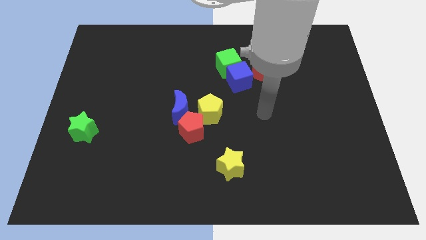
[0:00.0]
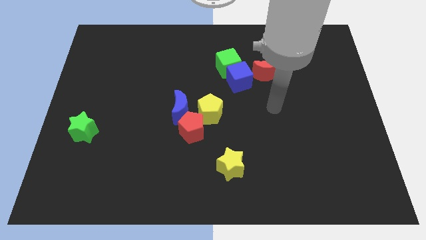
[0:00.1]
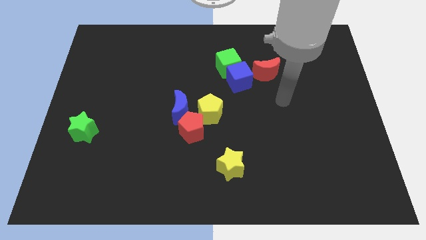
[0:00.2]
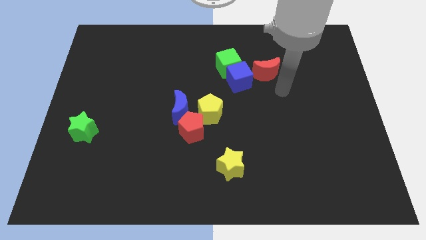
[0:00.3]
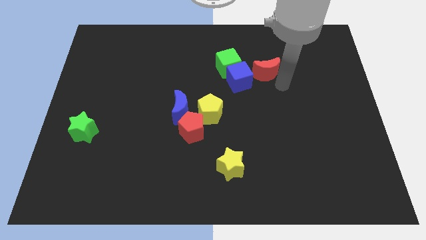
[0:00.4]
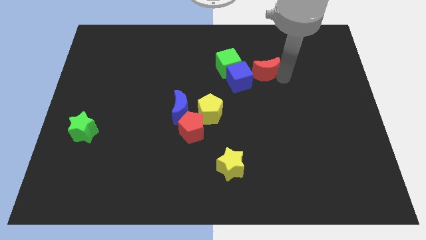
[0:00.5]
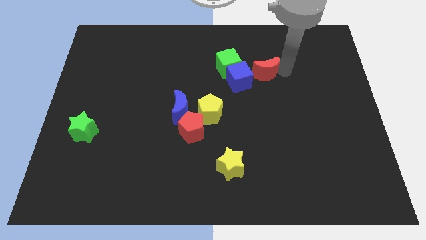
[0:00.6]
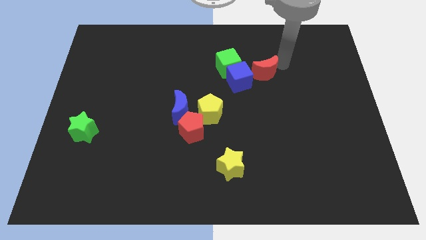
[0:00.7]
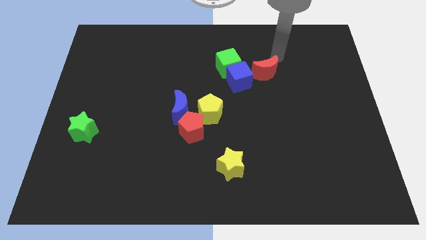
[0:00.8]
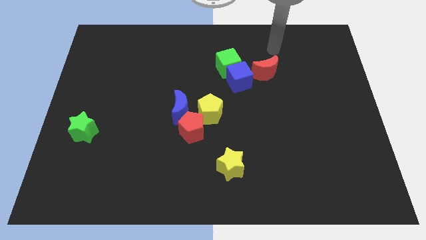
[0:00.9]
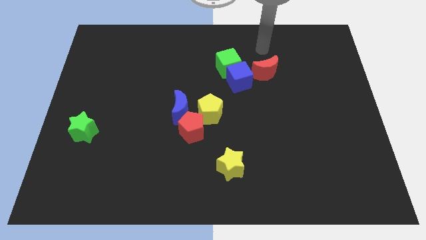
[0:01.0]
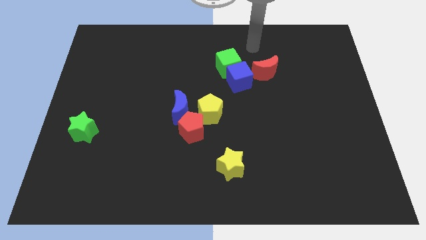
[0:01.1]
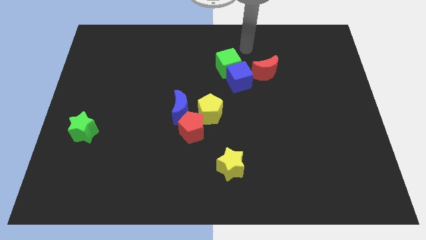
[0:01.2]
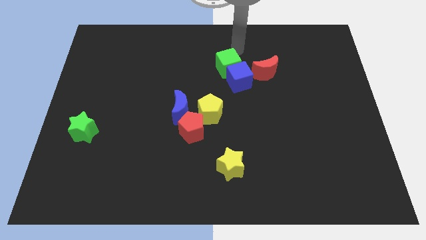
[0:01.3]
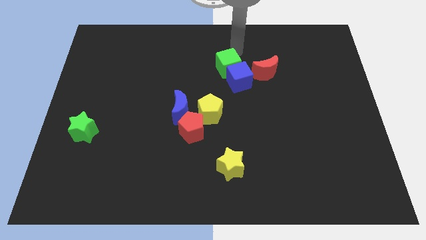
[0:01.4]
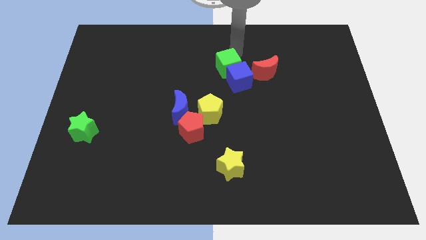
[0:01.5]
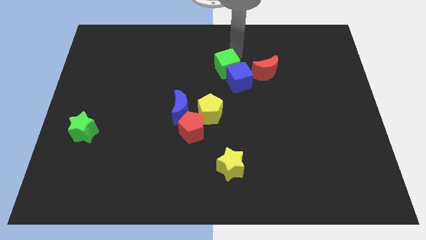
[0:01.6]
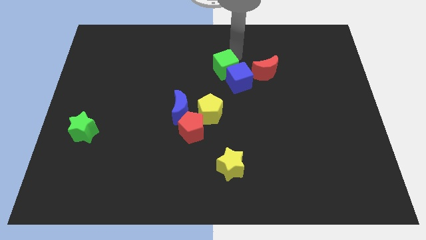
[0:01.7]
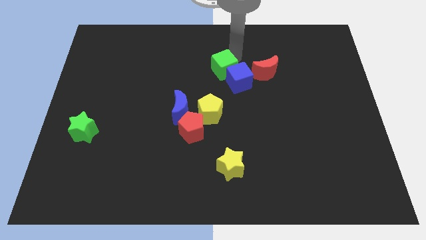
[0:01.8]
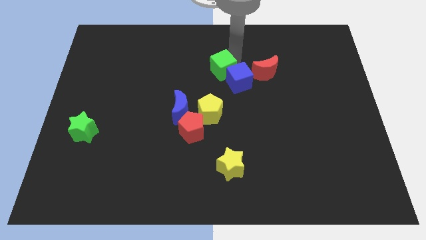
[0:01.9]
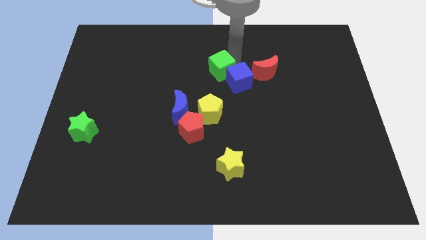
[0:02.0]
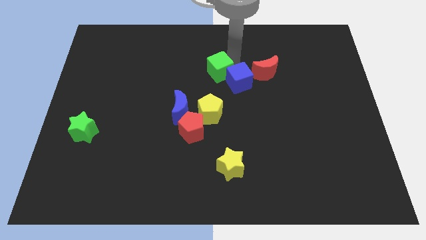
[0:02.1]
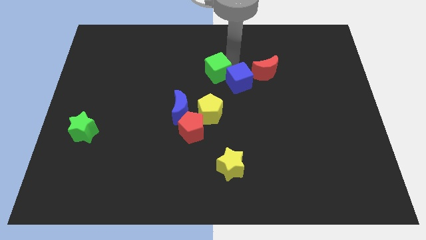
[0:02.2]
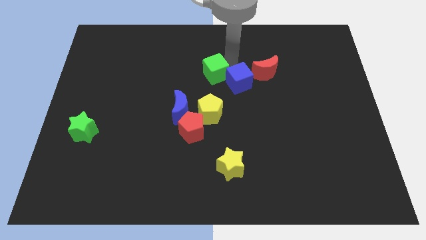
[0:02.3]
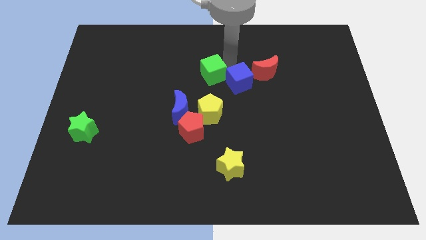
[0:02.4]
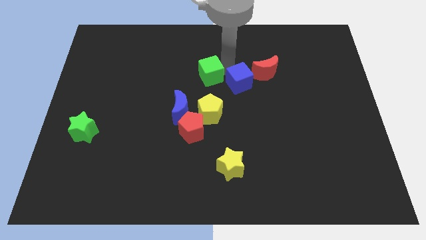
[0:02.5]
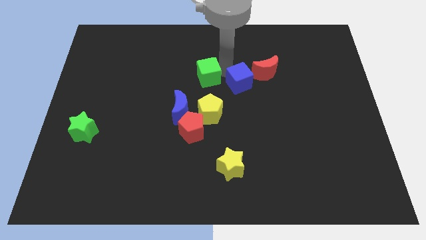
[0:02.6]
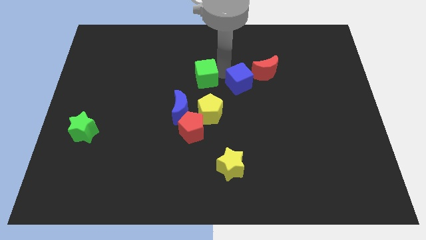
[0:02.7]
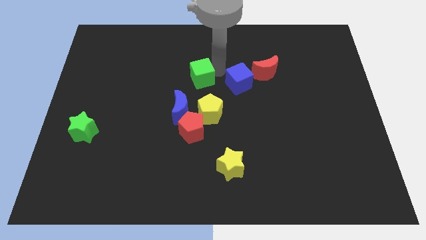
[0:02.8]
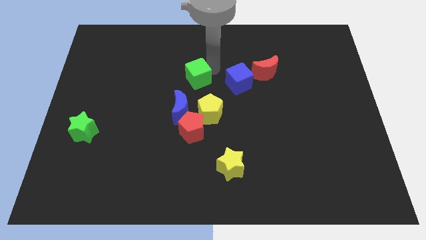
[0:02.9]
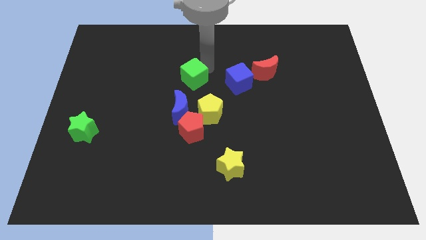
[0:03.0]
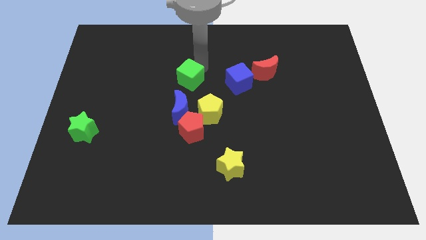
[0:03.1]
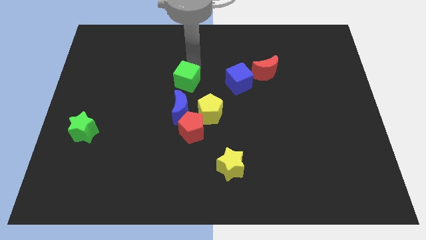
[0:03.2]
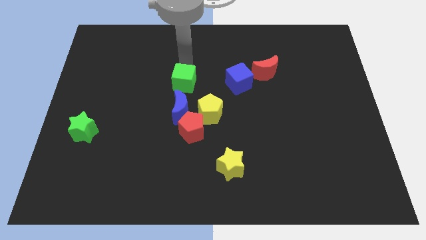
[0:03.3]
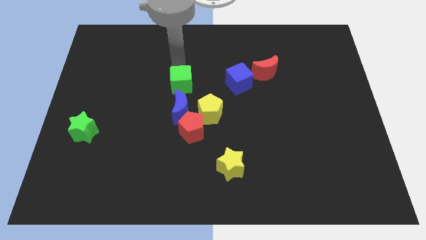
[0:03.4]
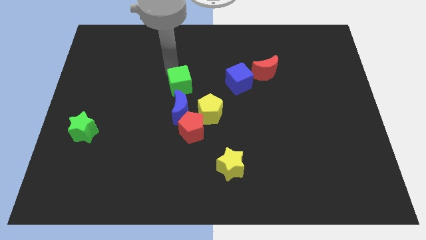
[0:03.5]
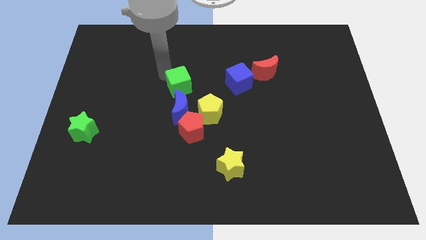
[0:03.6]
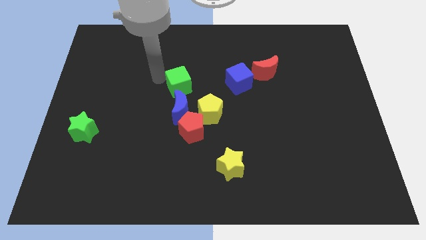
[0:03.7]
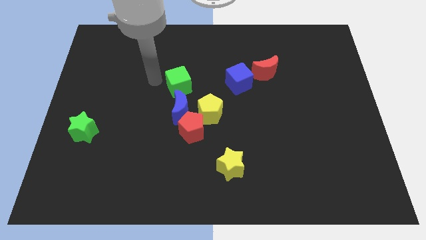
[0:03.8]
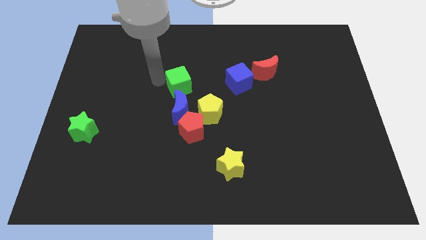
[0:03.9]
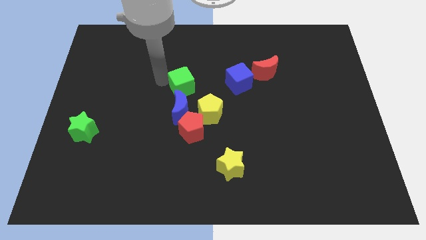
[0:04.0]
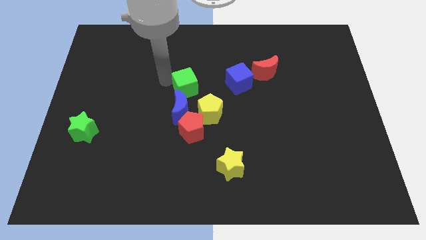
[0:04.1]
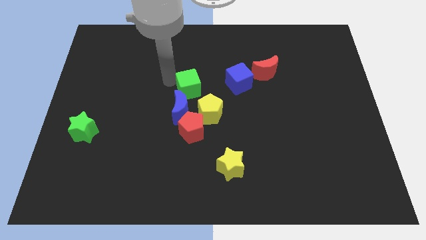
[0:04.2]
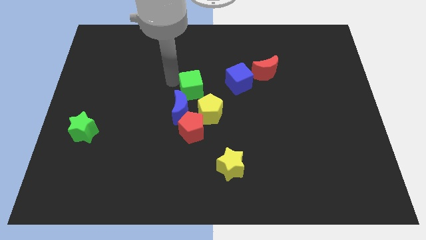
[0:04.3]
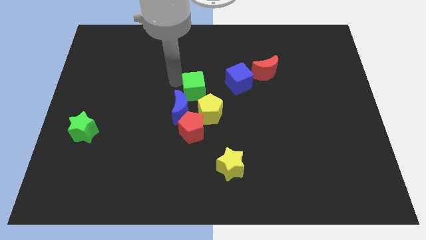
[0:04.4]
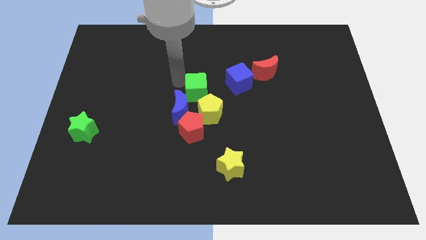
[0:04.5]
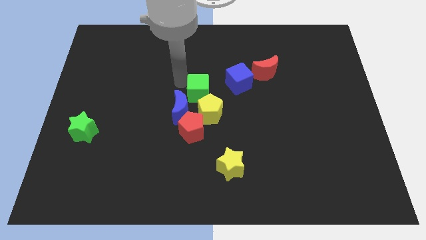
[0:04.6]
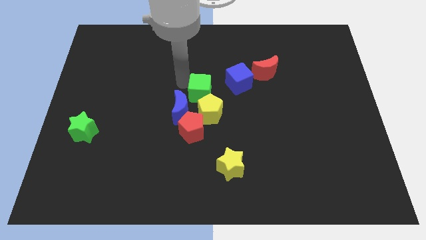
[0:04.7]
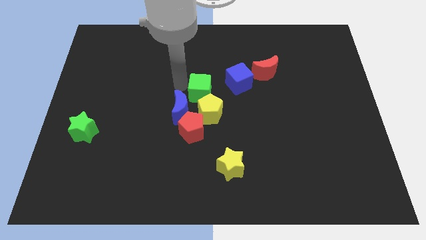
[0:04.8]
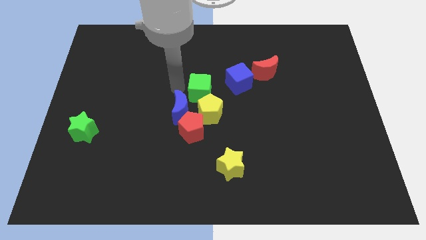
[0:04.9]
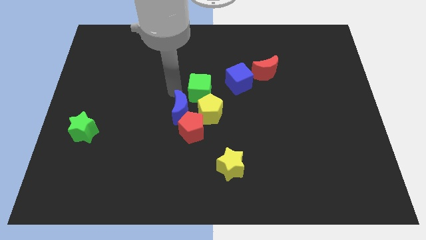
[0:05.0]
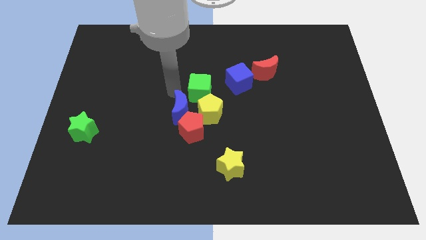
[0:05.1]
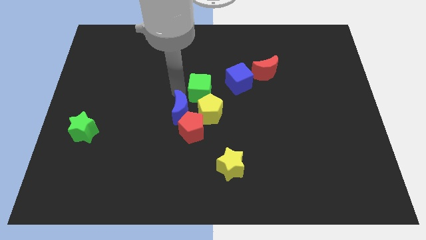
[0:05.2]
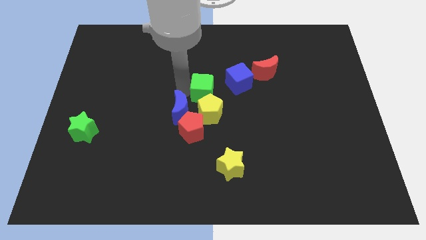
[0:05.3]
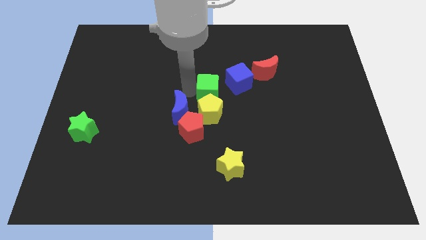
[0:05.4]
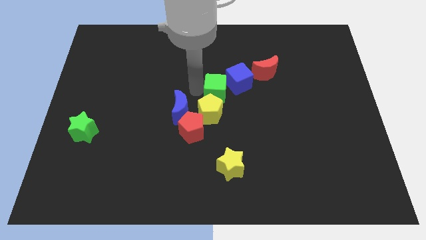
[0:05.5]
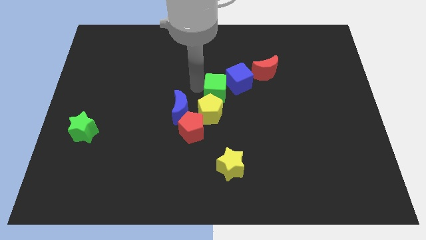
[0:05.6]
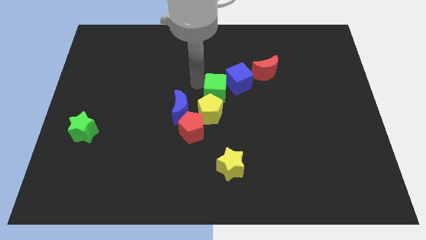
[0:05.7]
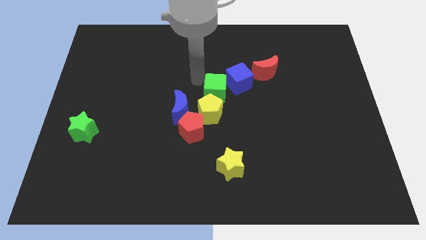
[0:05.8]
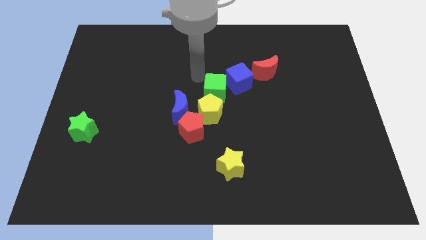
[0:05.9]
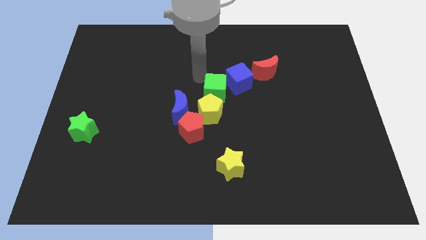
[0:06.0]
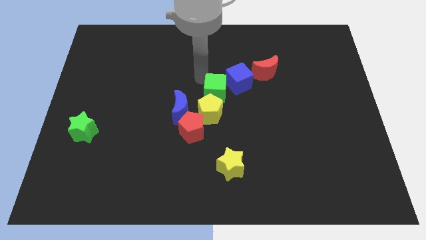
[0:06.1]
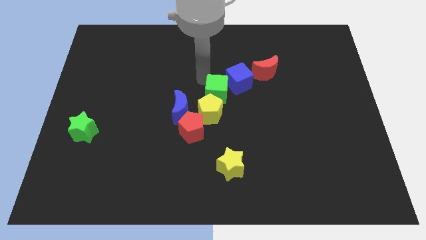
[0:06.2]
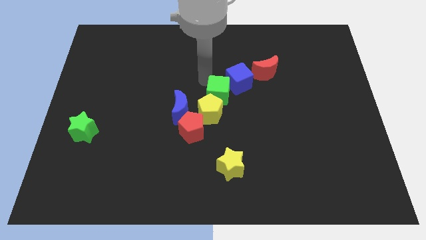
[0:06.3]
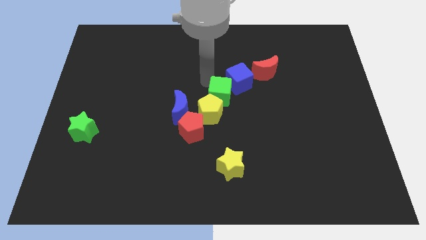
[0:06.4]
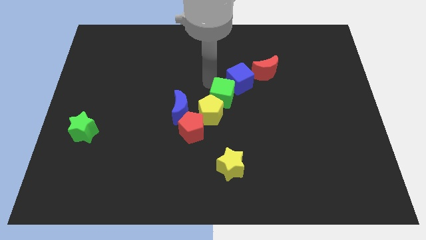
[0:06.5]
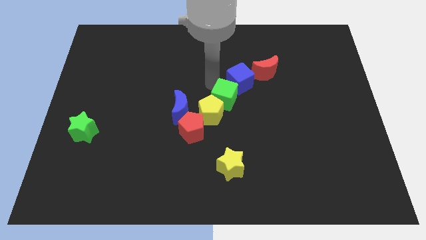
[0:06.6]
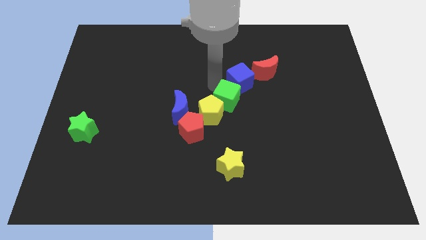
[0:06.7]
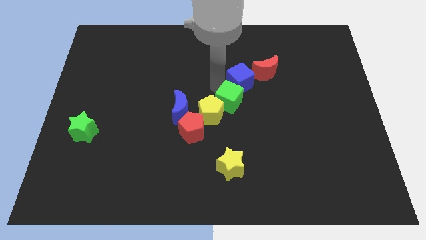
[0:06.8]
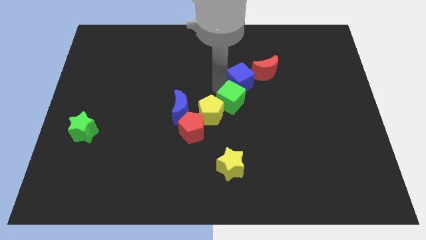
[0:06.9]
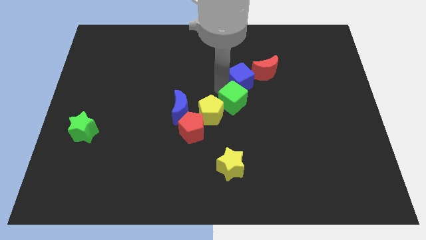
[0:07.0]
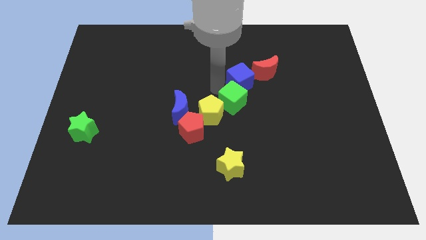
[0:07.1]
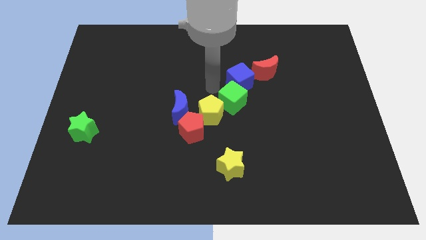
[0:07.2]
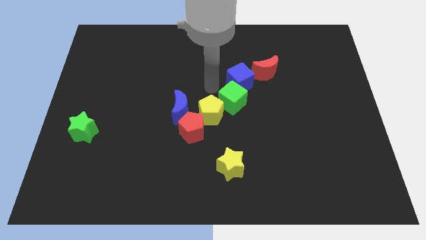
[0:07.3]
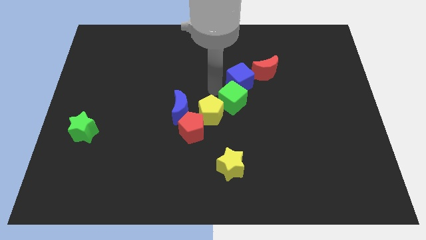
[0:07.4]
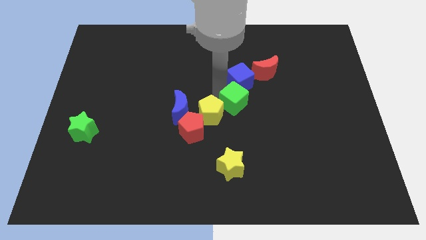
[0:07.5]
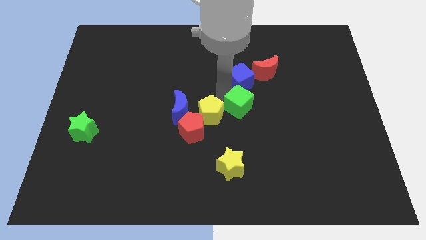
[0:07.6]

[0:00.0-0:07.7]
slightly push the green cube diagonally down and right

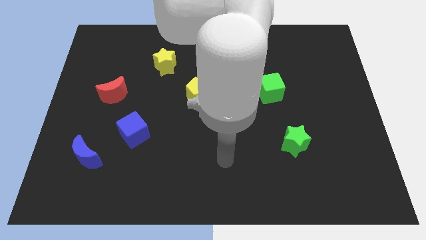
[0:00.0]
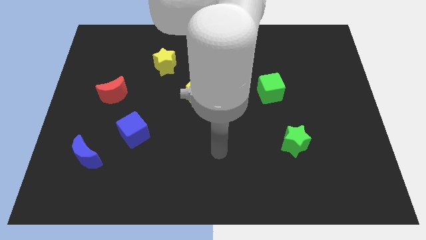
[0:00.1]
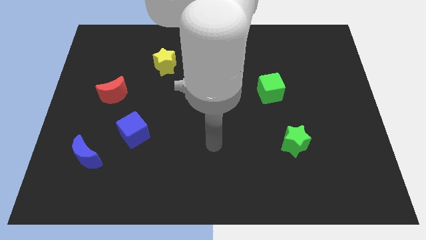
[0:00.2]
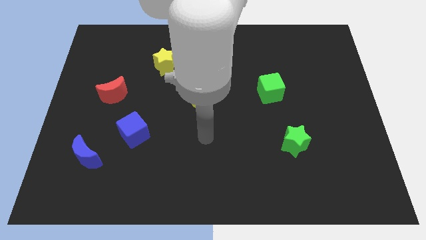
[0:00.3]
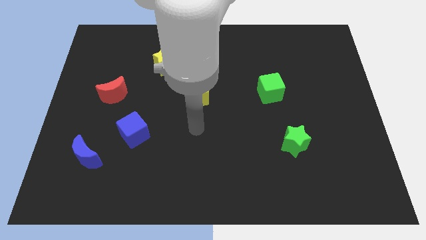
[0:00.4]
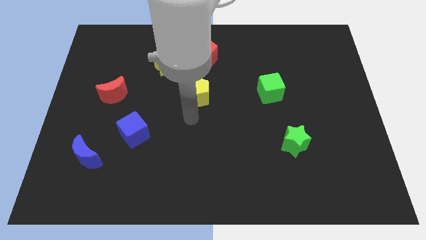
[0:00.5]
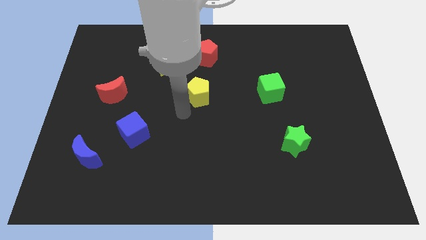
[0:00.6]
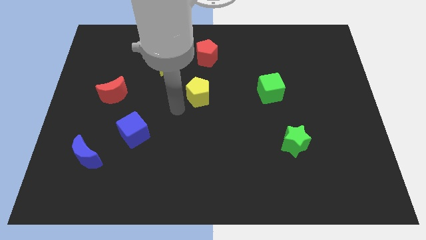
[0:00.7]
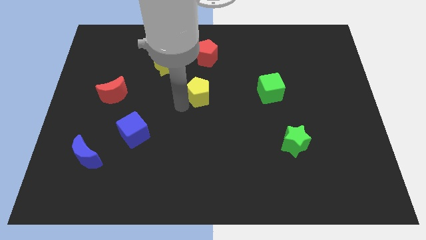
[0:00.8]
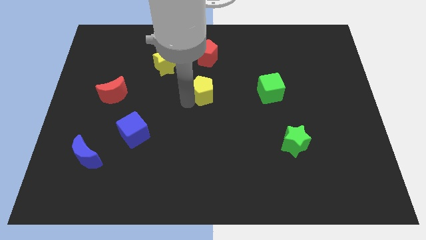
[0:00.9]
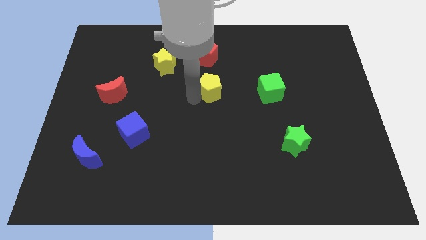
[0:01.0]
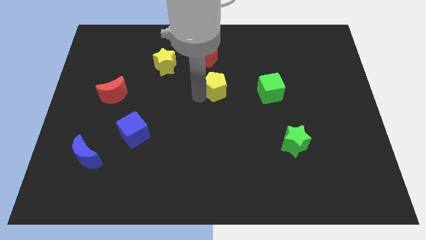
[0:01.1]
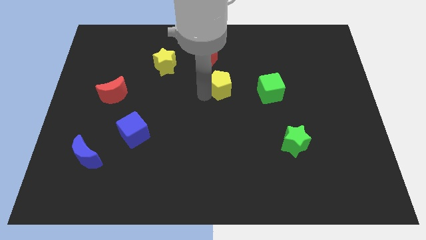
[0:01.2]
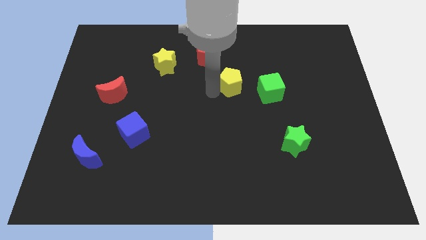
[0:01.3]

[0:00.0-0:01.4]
slightly push the yellow pentagon diagonally upwards and to the right
